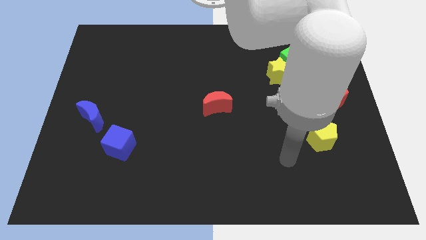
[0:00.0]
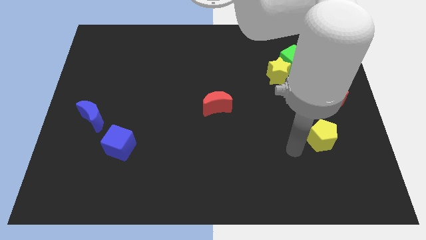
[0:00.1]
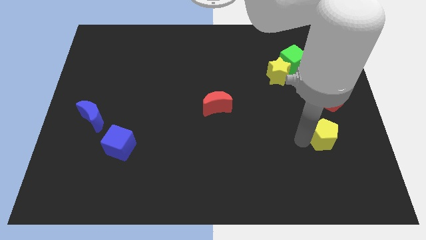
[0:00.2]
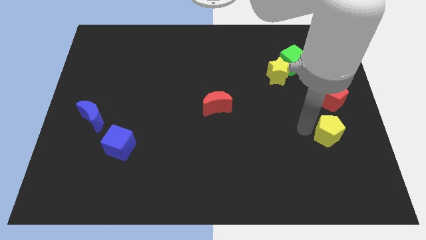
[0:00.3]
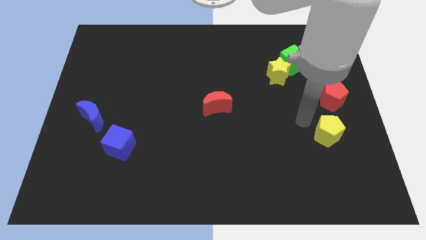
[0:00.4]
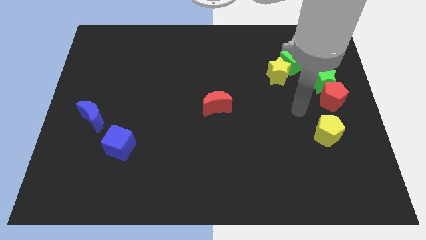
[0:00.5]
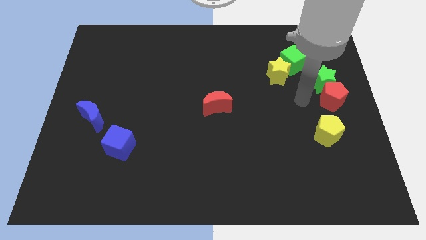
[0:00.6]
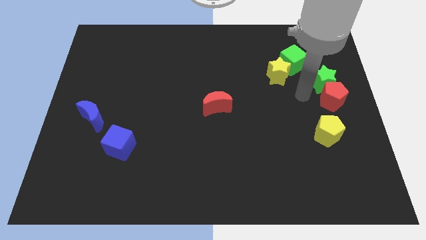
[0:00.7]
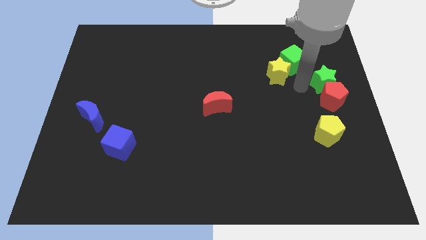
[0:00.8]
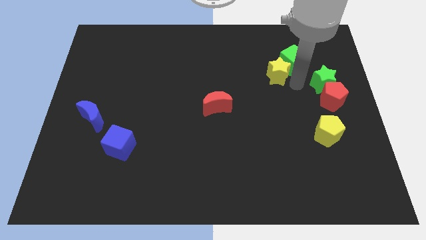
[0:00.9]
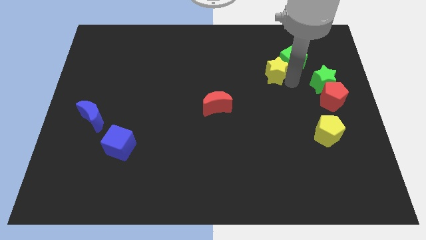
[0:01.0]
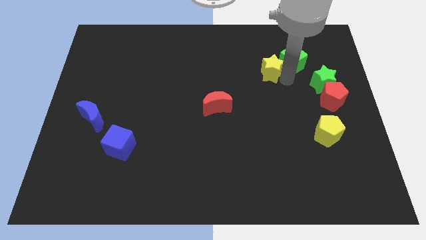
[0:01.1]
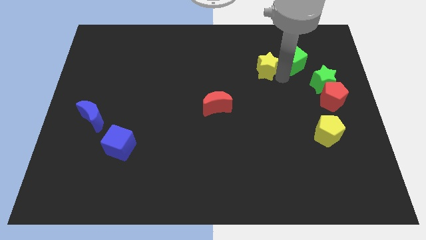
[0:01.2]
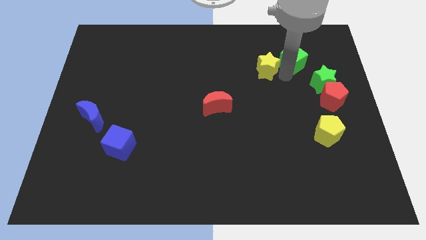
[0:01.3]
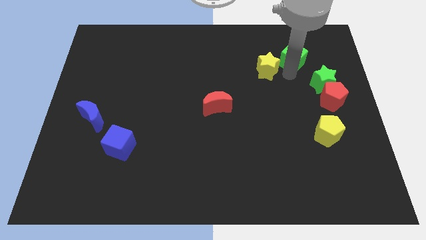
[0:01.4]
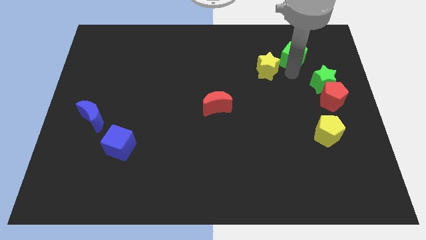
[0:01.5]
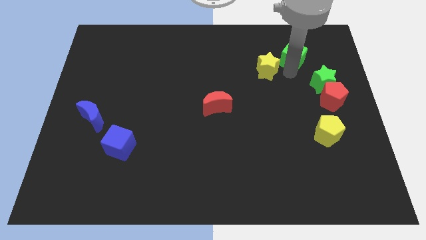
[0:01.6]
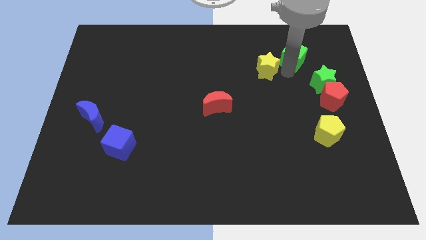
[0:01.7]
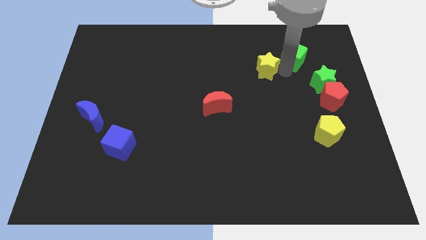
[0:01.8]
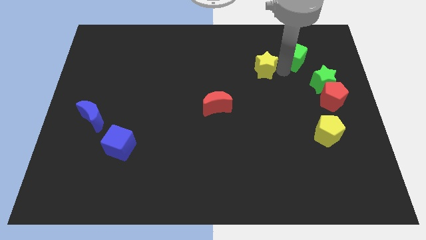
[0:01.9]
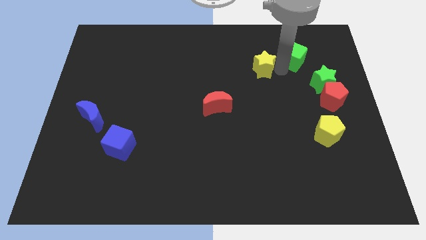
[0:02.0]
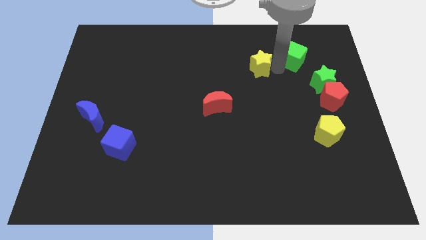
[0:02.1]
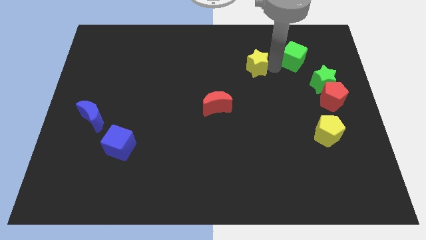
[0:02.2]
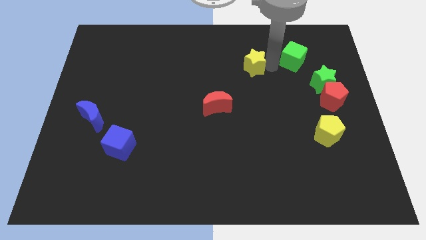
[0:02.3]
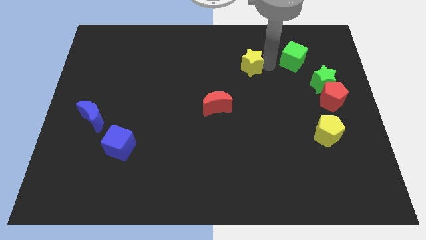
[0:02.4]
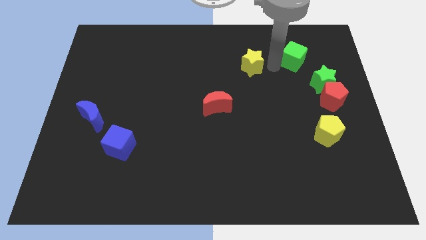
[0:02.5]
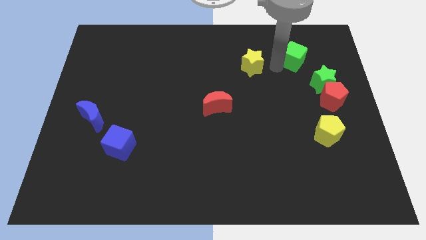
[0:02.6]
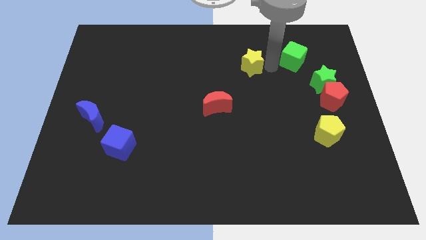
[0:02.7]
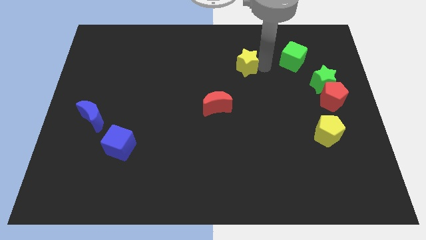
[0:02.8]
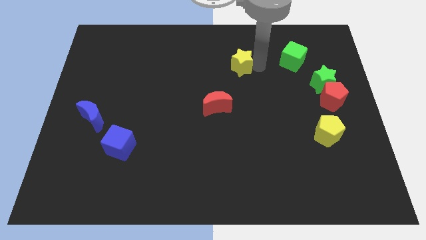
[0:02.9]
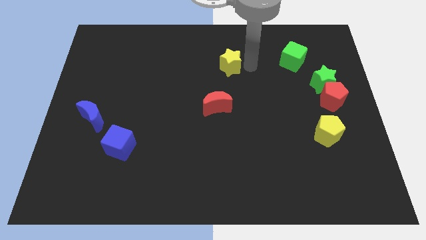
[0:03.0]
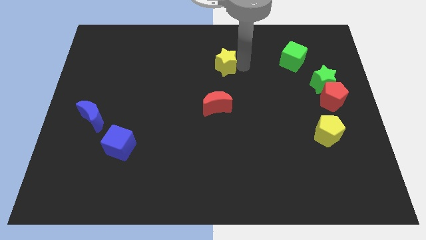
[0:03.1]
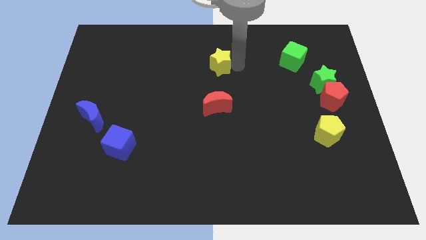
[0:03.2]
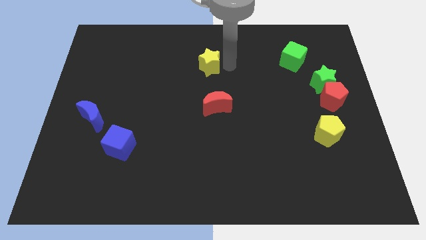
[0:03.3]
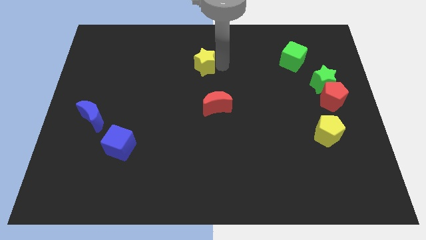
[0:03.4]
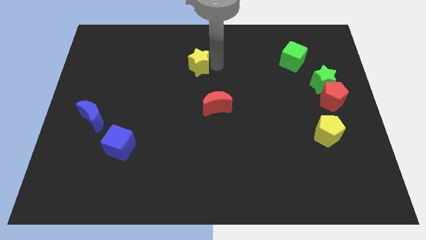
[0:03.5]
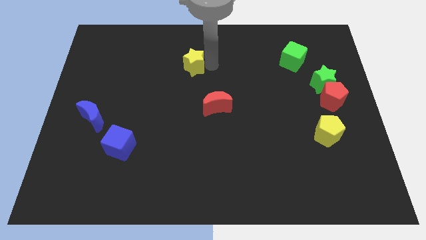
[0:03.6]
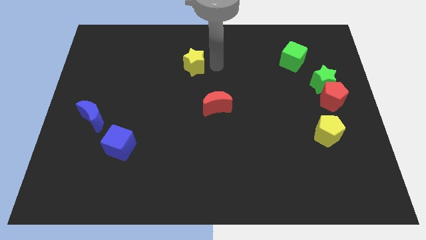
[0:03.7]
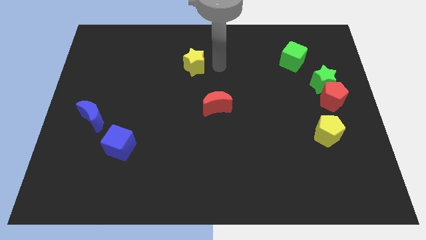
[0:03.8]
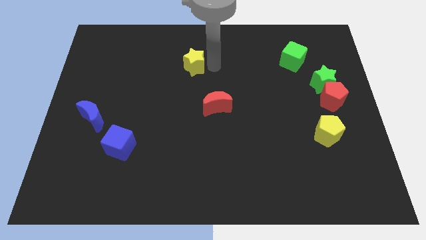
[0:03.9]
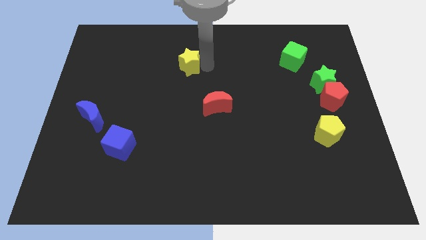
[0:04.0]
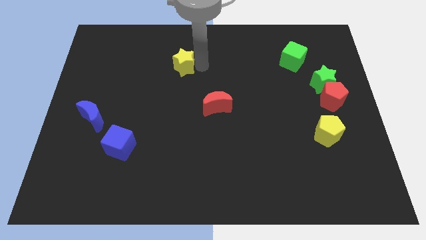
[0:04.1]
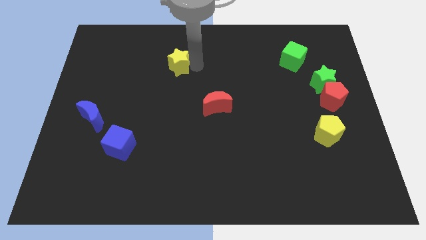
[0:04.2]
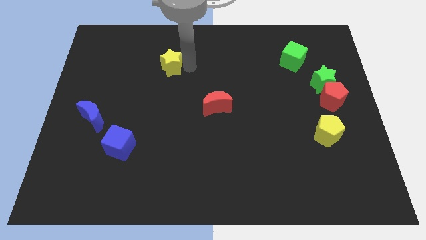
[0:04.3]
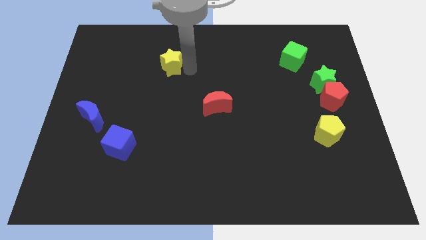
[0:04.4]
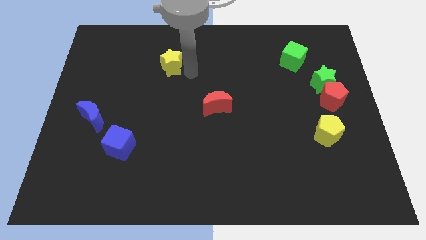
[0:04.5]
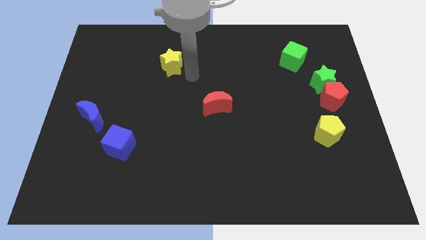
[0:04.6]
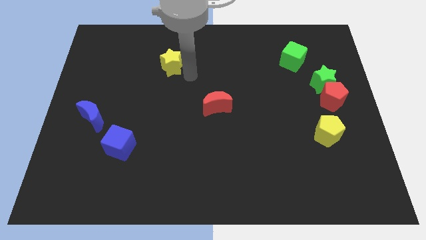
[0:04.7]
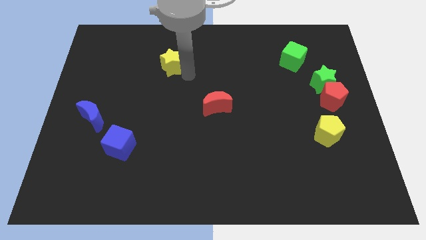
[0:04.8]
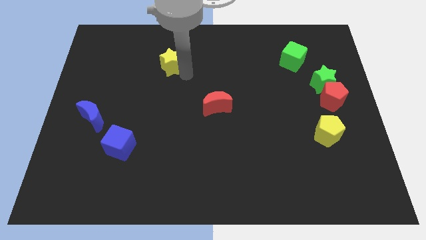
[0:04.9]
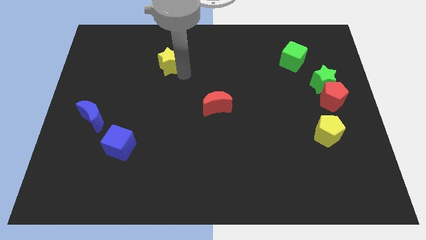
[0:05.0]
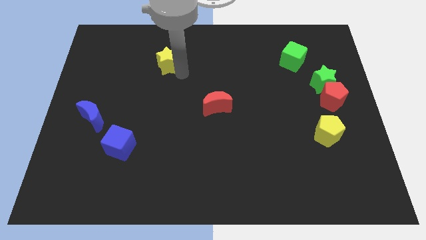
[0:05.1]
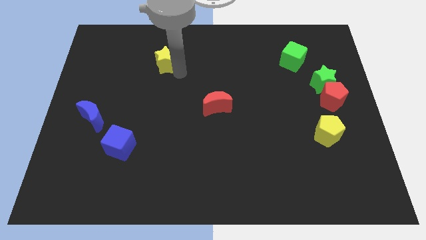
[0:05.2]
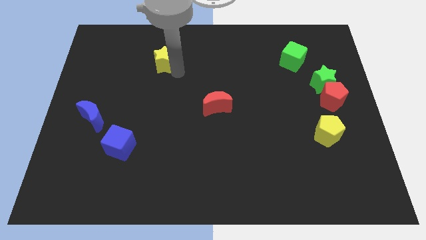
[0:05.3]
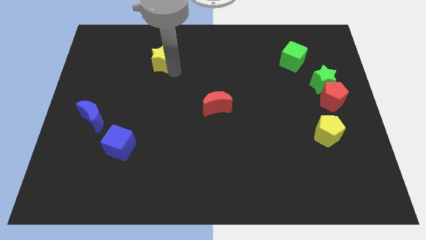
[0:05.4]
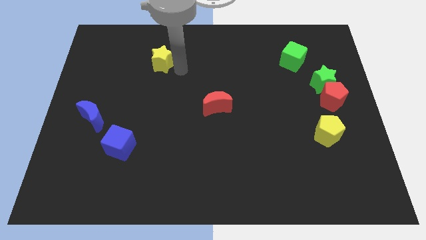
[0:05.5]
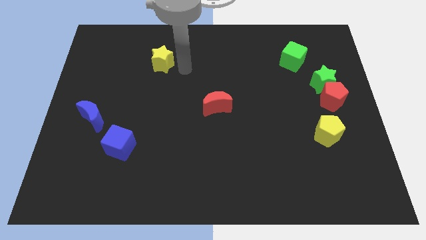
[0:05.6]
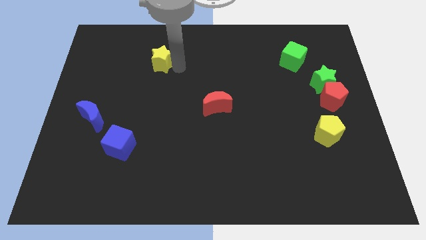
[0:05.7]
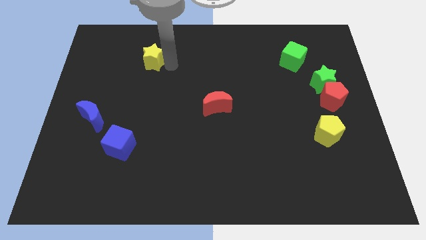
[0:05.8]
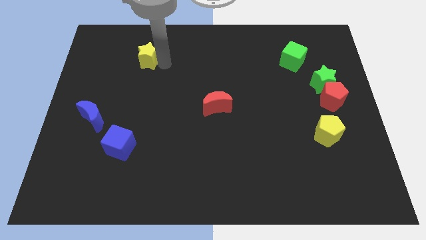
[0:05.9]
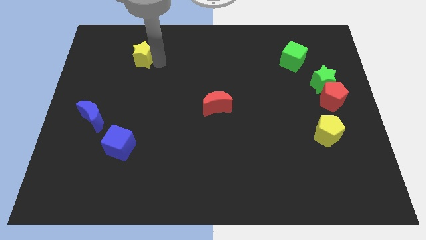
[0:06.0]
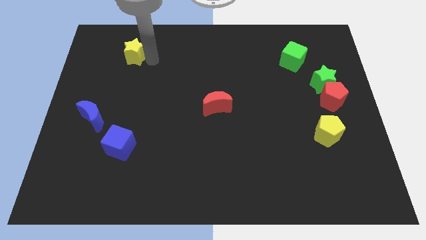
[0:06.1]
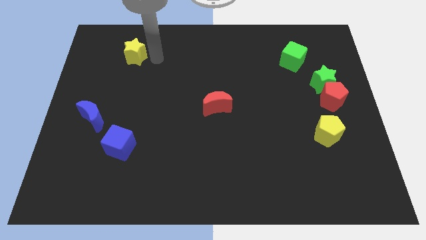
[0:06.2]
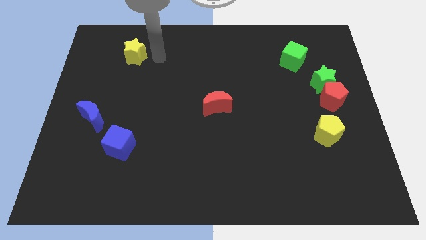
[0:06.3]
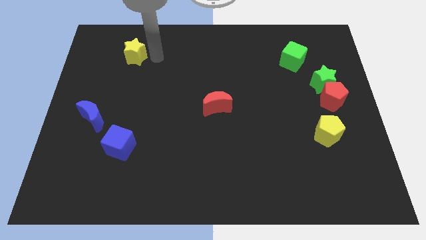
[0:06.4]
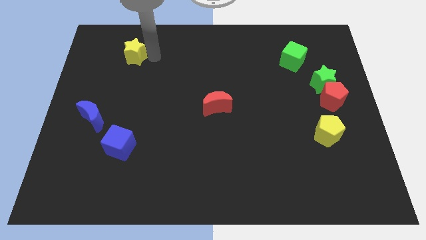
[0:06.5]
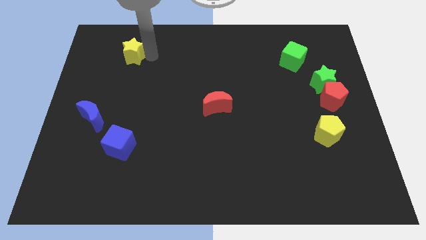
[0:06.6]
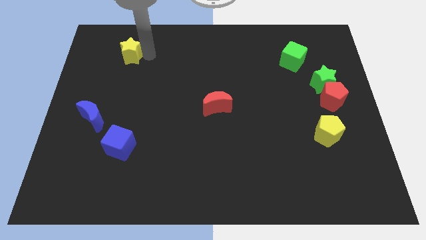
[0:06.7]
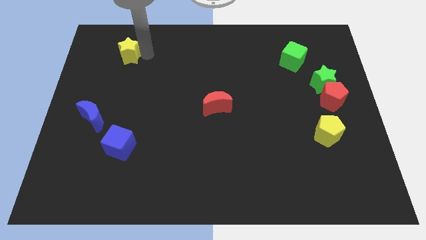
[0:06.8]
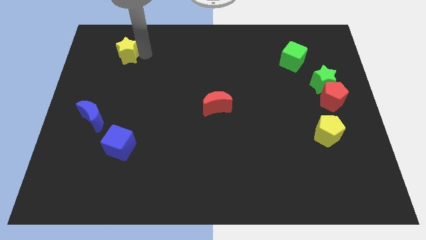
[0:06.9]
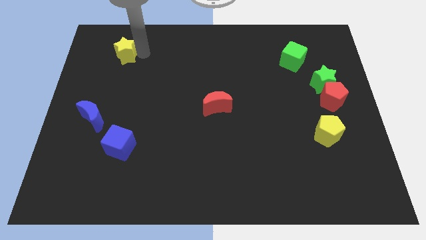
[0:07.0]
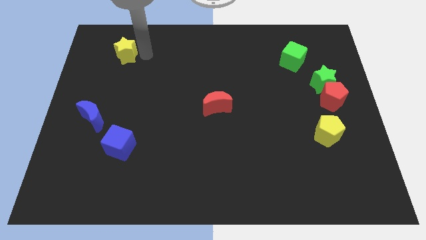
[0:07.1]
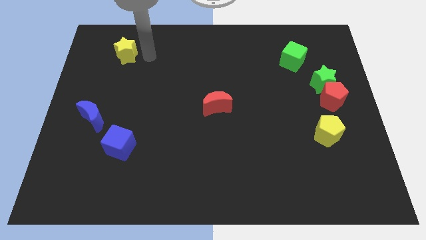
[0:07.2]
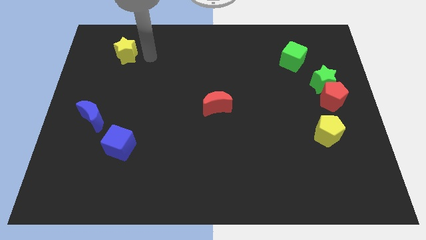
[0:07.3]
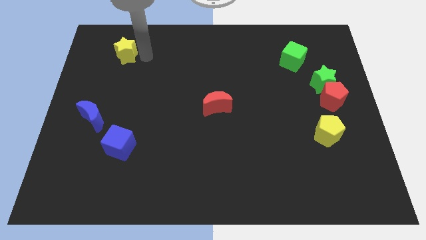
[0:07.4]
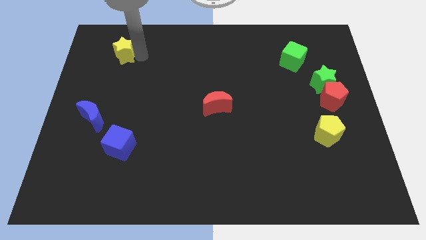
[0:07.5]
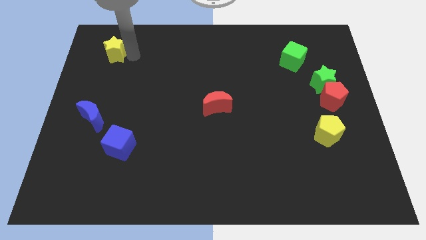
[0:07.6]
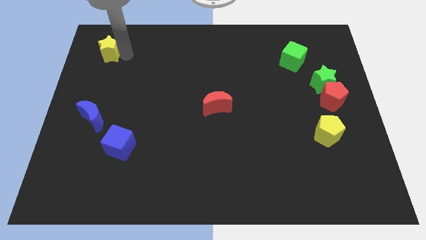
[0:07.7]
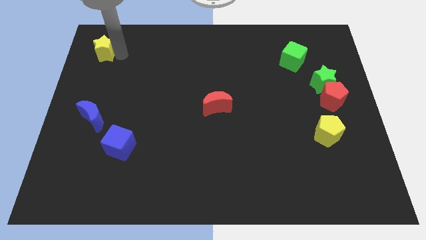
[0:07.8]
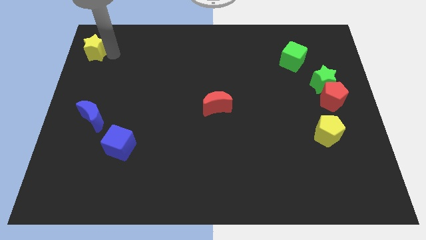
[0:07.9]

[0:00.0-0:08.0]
move the yellow star to the upper left corner
